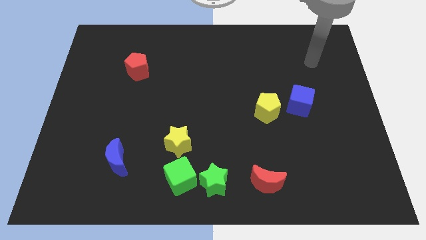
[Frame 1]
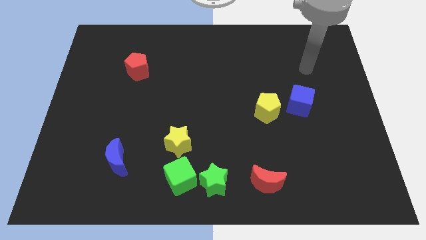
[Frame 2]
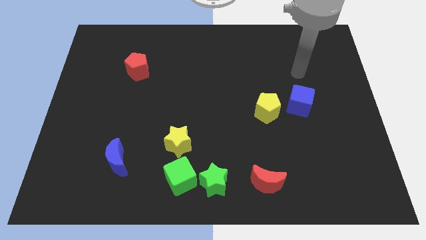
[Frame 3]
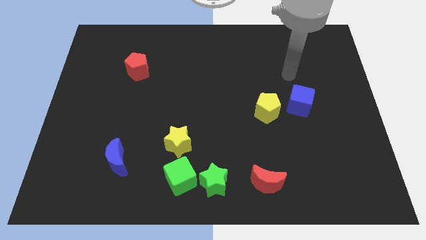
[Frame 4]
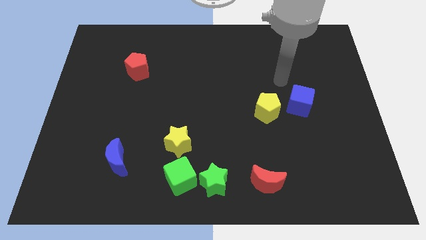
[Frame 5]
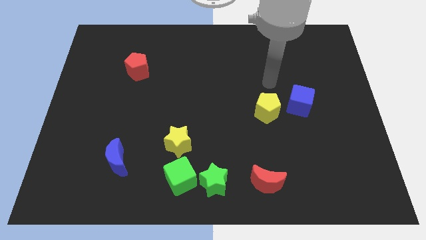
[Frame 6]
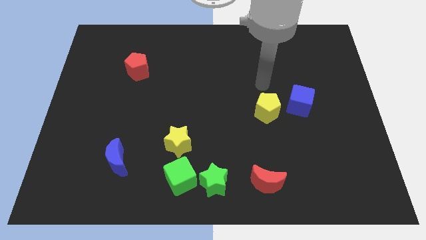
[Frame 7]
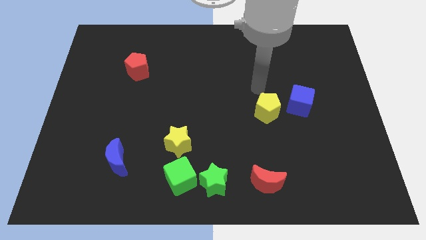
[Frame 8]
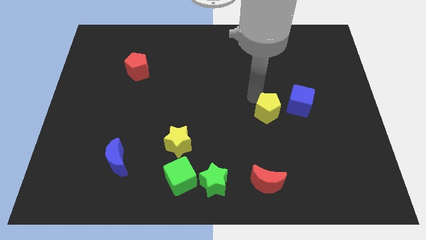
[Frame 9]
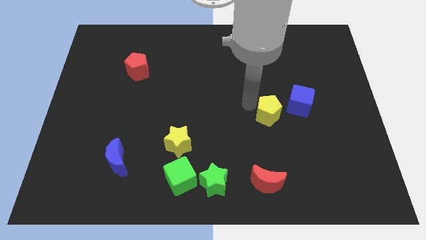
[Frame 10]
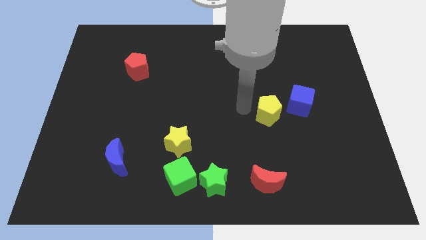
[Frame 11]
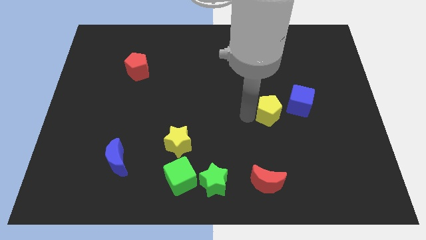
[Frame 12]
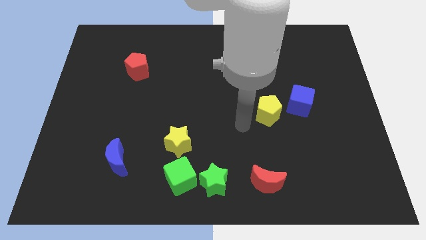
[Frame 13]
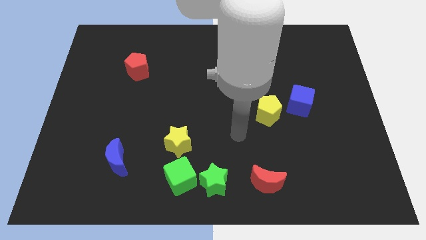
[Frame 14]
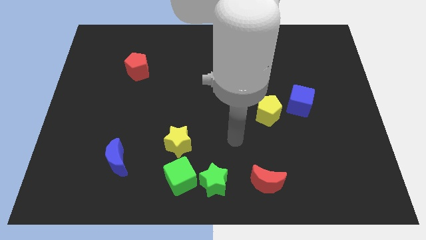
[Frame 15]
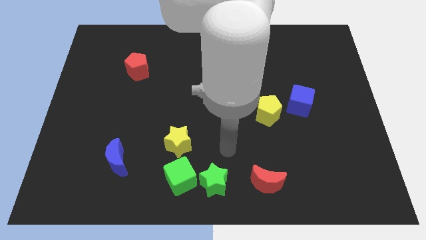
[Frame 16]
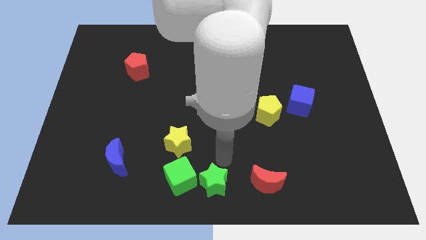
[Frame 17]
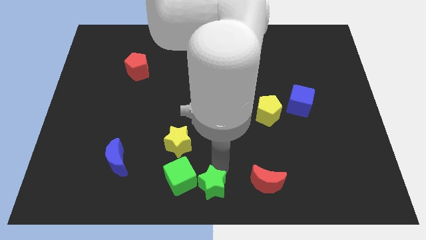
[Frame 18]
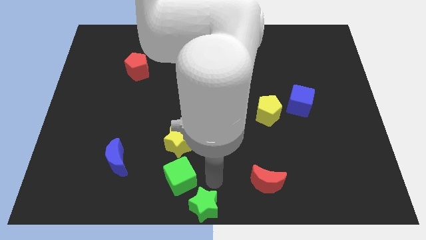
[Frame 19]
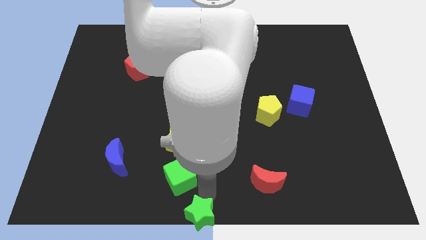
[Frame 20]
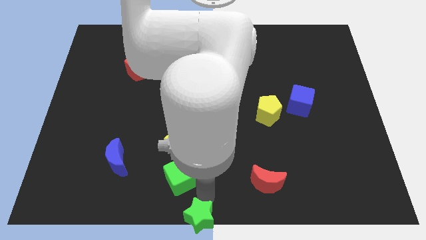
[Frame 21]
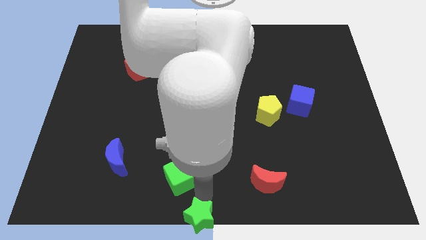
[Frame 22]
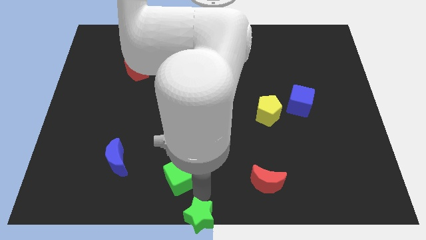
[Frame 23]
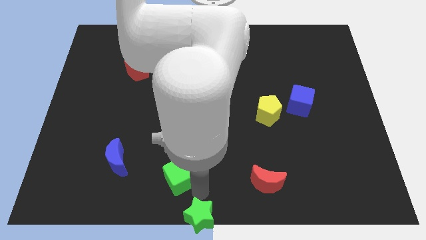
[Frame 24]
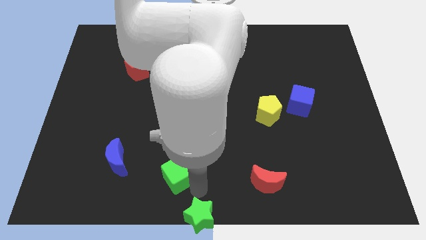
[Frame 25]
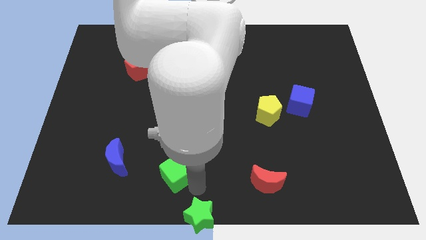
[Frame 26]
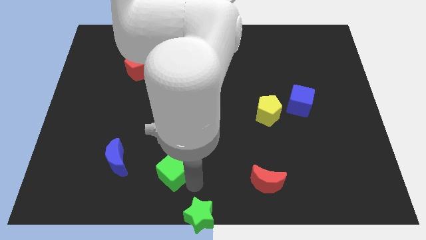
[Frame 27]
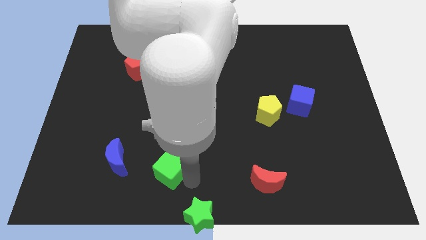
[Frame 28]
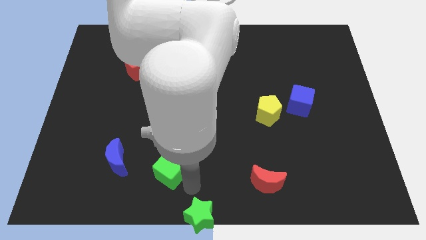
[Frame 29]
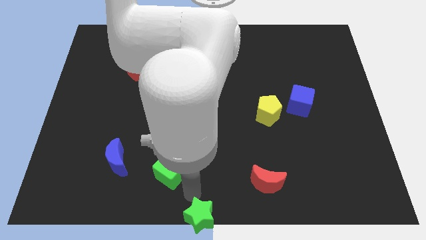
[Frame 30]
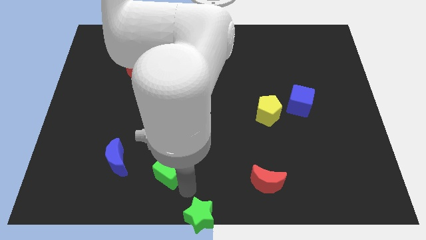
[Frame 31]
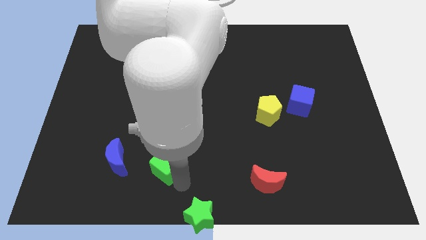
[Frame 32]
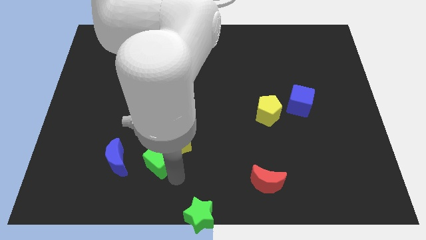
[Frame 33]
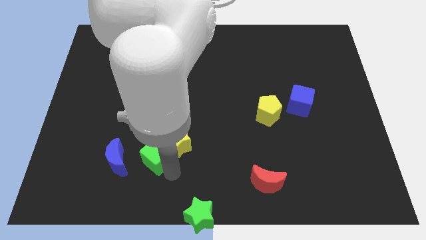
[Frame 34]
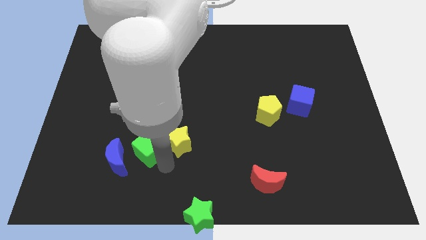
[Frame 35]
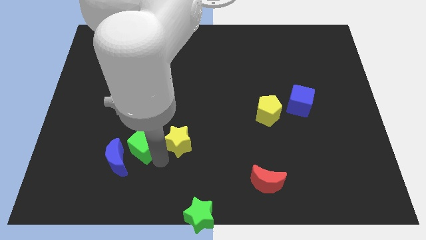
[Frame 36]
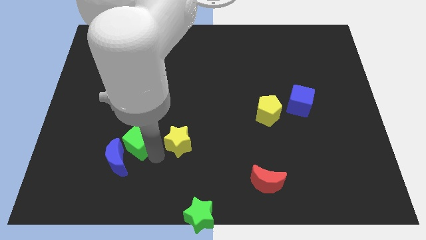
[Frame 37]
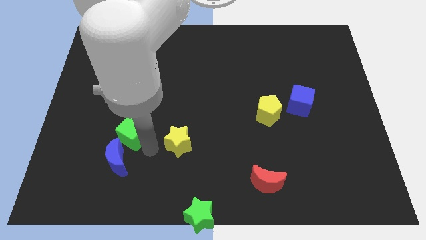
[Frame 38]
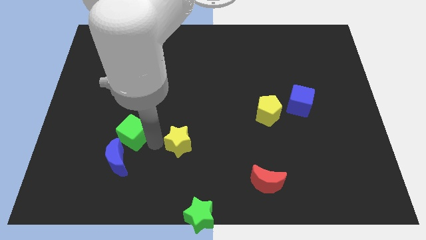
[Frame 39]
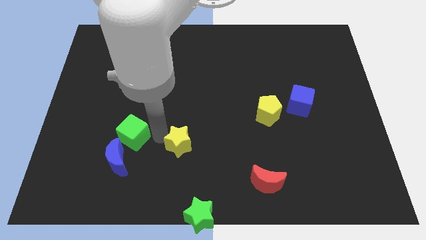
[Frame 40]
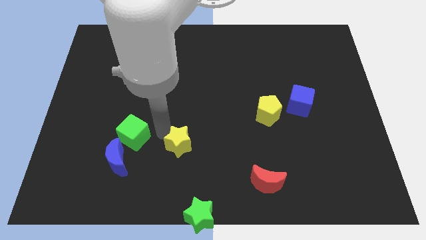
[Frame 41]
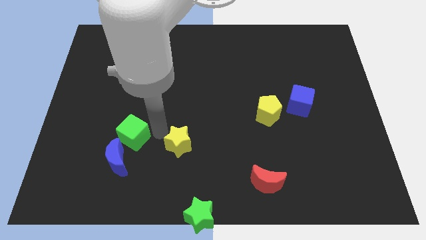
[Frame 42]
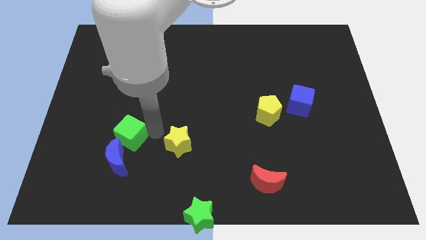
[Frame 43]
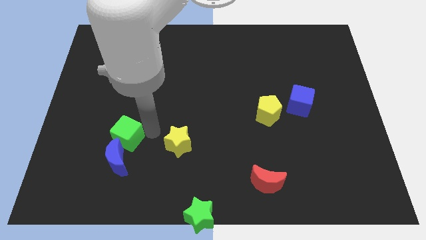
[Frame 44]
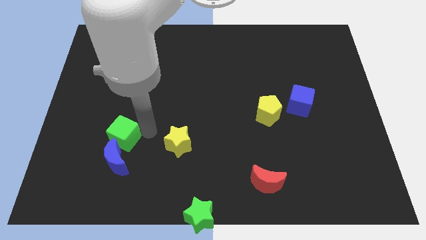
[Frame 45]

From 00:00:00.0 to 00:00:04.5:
move the green cube to the top left side of the blue moon

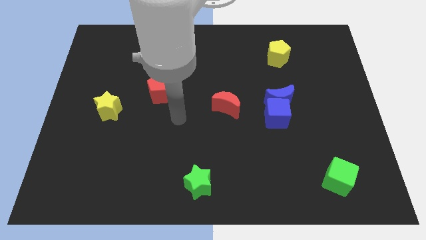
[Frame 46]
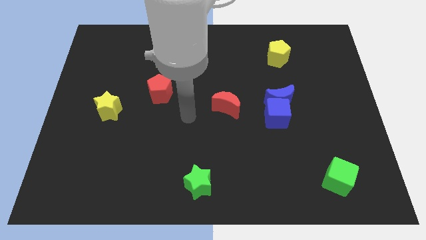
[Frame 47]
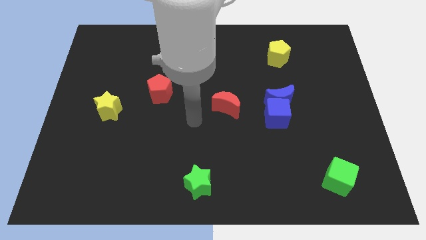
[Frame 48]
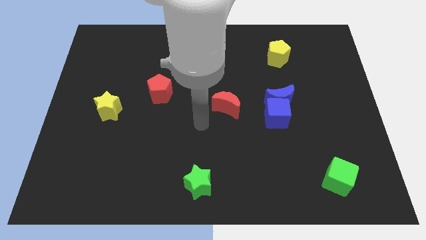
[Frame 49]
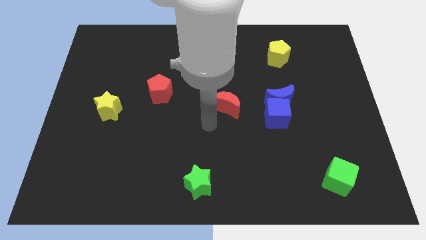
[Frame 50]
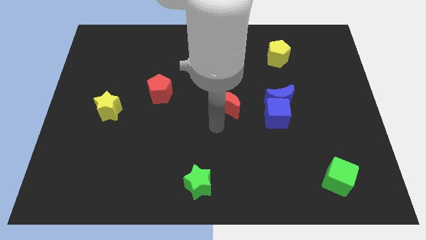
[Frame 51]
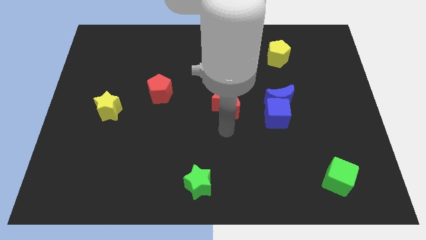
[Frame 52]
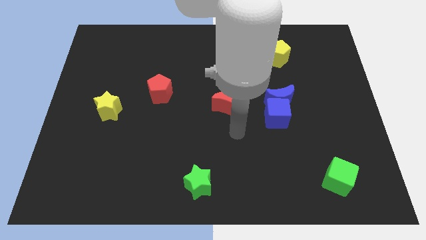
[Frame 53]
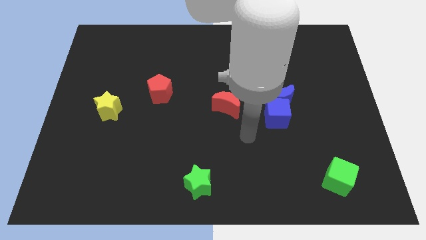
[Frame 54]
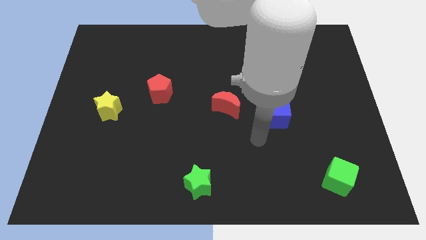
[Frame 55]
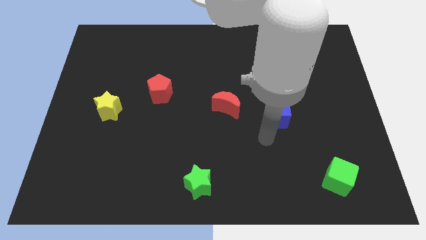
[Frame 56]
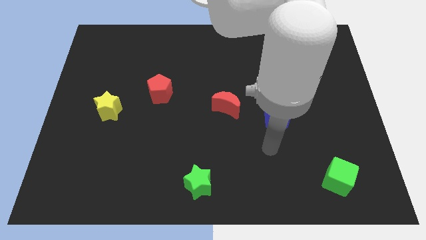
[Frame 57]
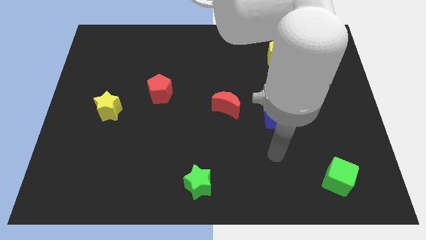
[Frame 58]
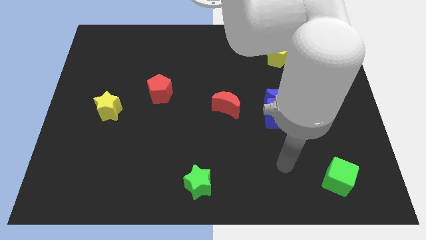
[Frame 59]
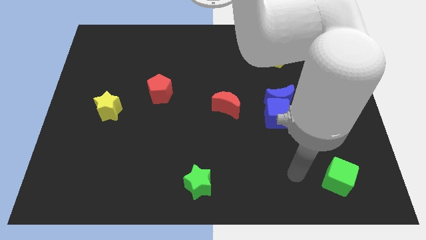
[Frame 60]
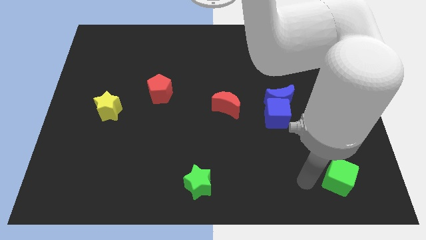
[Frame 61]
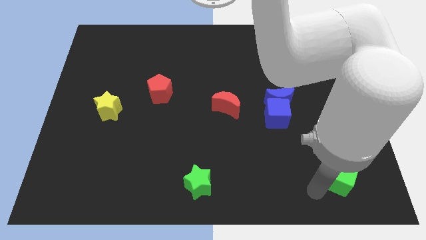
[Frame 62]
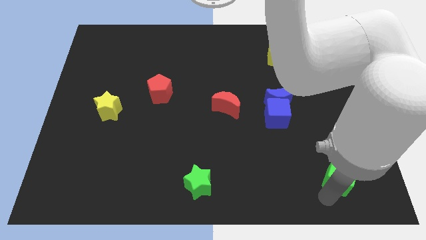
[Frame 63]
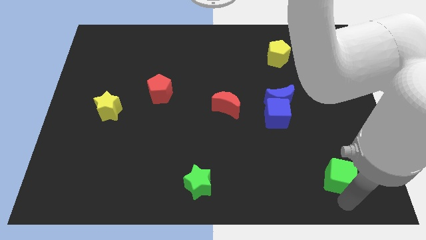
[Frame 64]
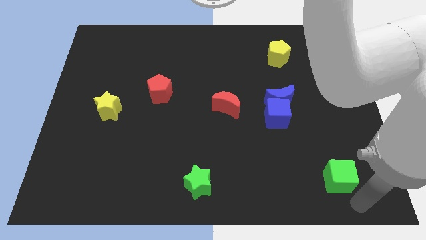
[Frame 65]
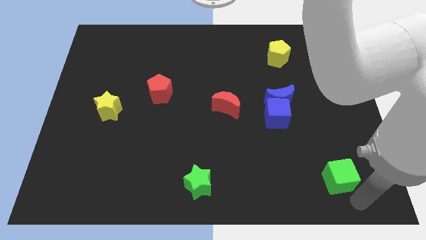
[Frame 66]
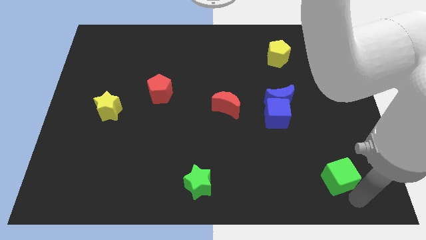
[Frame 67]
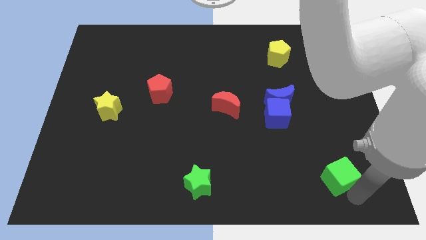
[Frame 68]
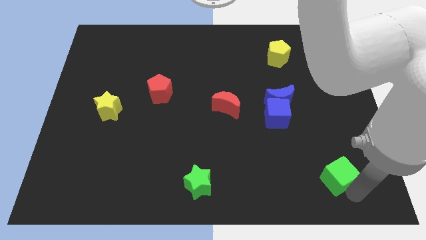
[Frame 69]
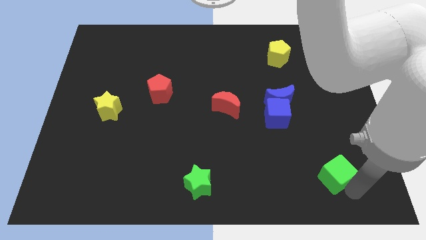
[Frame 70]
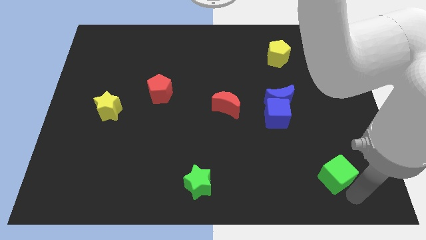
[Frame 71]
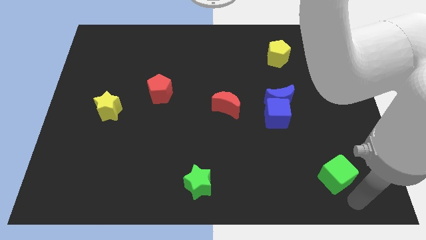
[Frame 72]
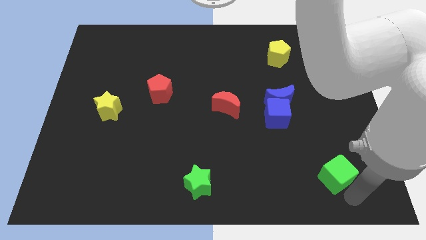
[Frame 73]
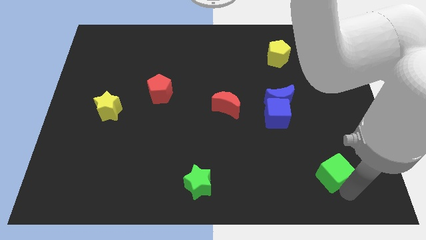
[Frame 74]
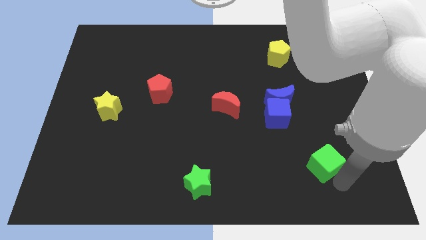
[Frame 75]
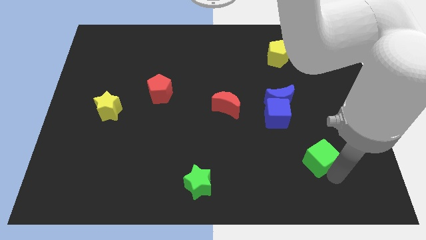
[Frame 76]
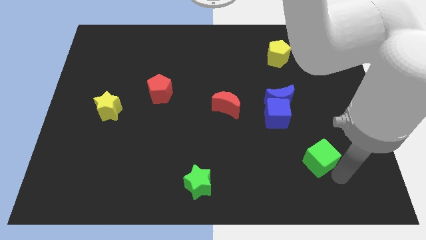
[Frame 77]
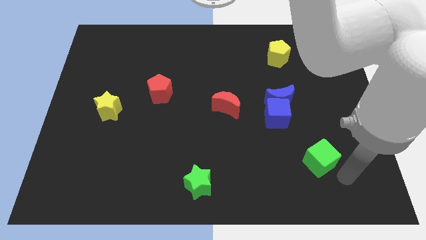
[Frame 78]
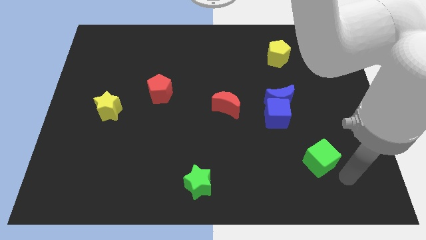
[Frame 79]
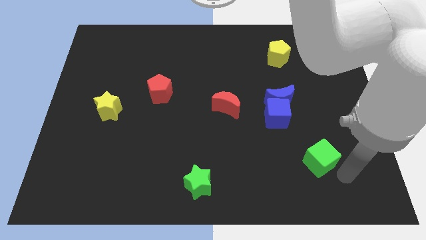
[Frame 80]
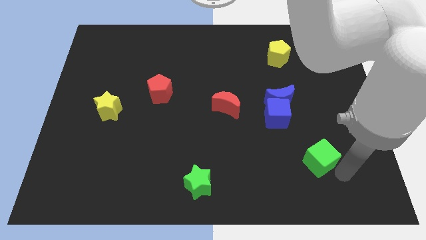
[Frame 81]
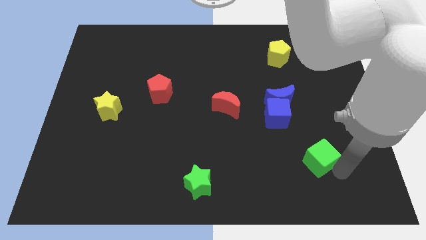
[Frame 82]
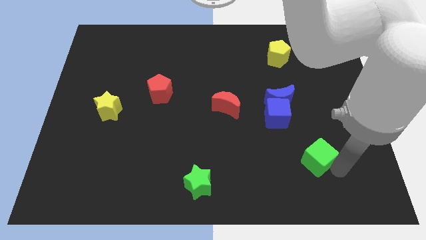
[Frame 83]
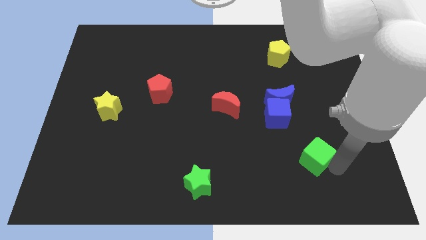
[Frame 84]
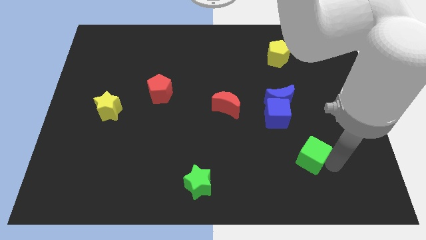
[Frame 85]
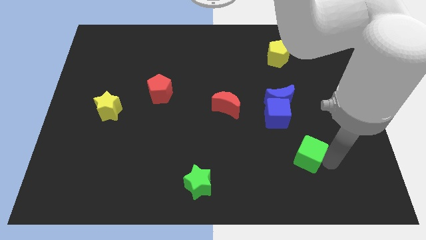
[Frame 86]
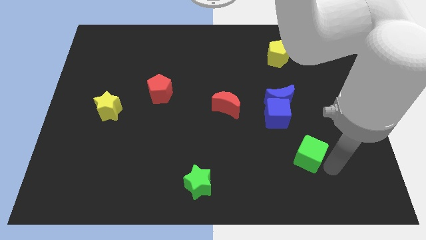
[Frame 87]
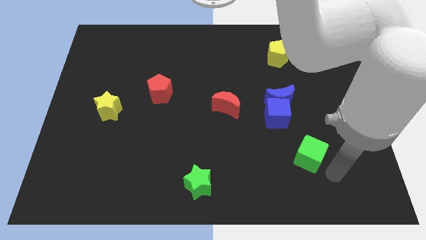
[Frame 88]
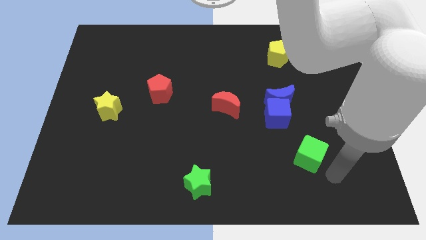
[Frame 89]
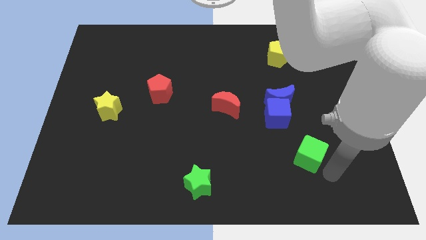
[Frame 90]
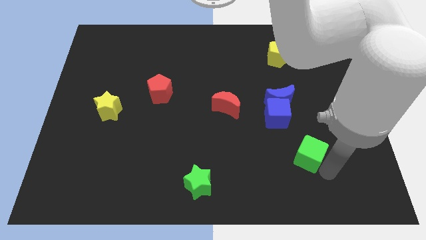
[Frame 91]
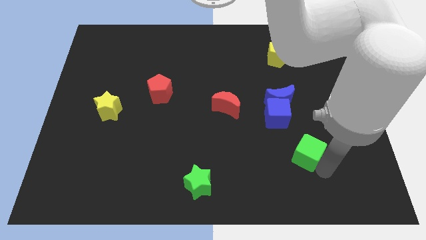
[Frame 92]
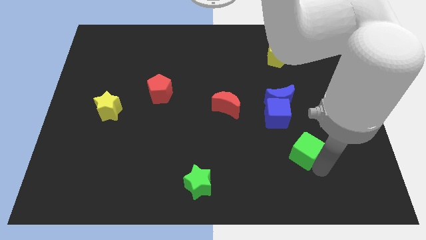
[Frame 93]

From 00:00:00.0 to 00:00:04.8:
move the green cube to the bottom side of the blue moon
